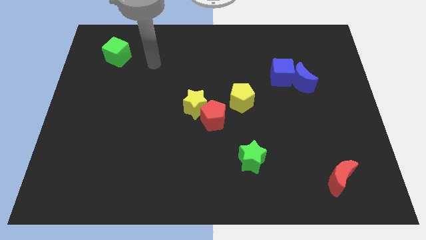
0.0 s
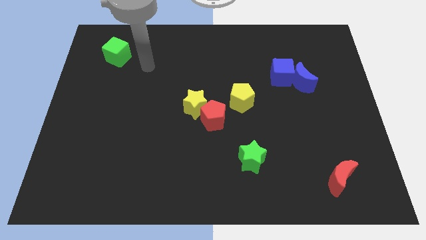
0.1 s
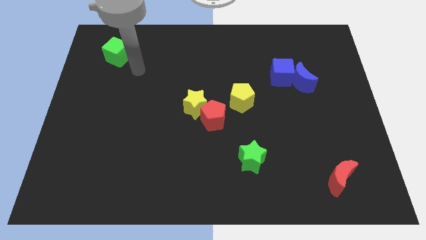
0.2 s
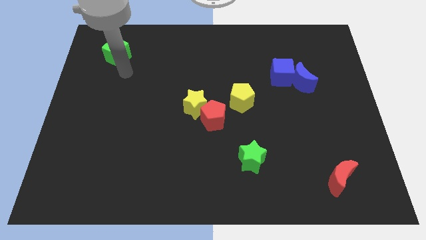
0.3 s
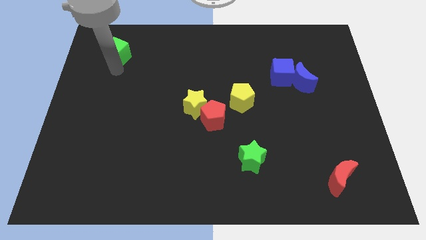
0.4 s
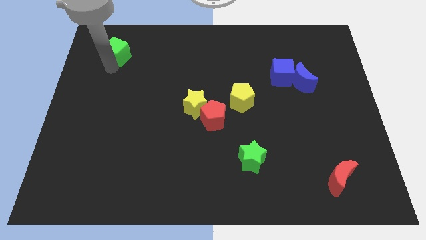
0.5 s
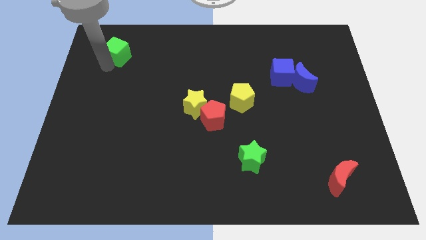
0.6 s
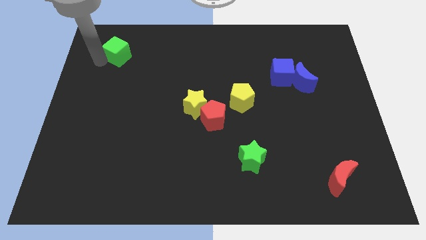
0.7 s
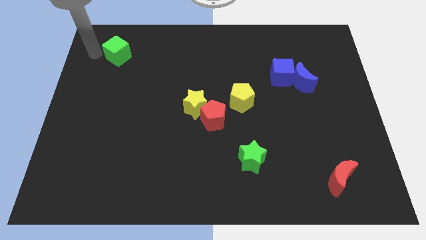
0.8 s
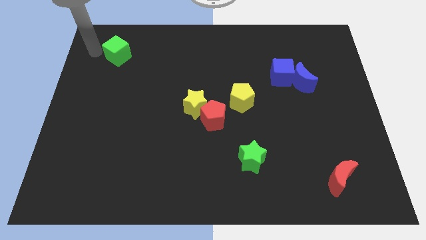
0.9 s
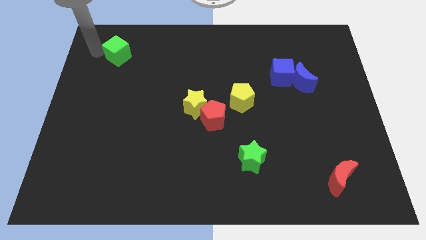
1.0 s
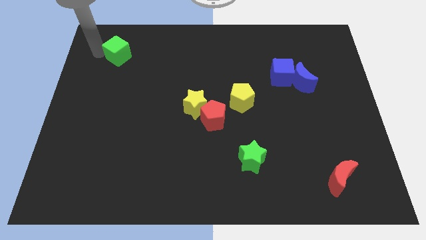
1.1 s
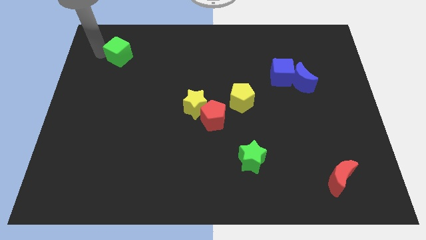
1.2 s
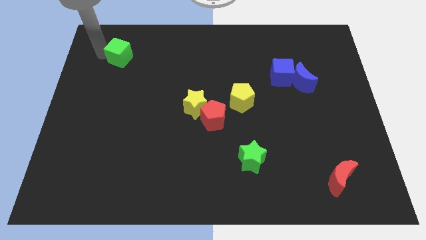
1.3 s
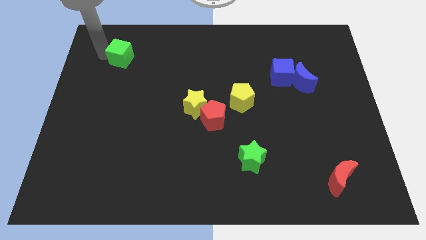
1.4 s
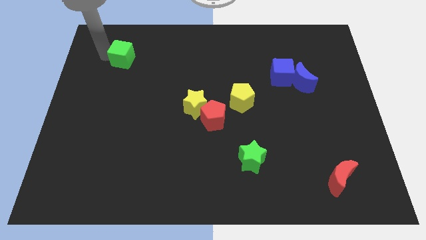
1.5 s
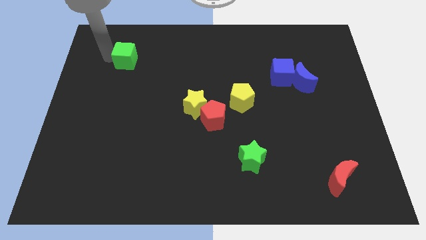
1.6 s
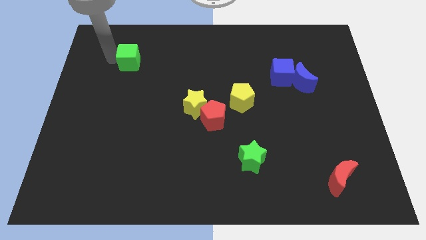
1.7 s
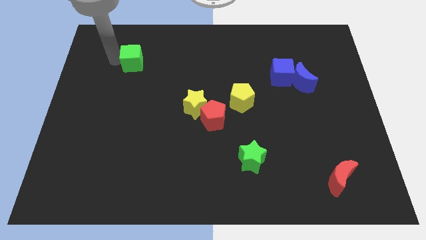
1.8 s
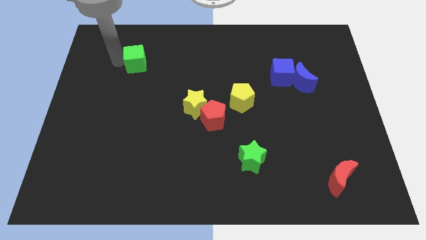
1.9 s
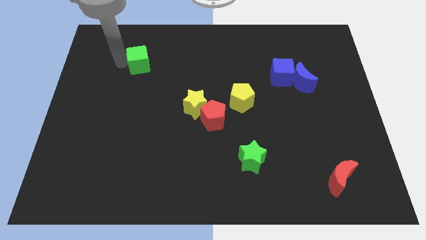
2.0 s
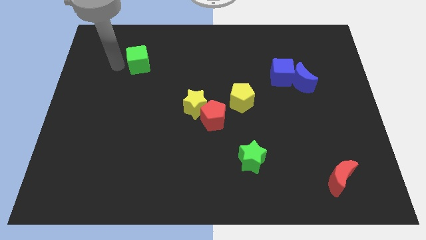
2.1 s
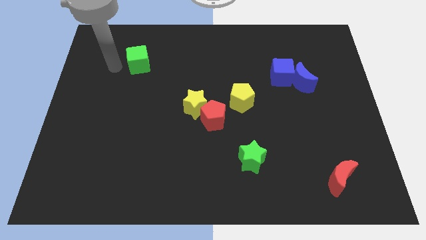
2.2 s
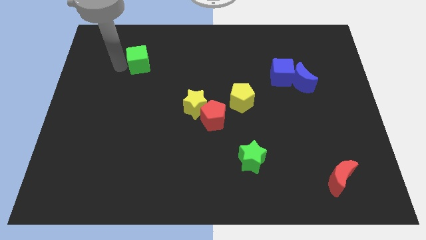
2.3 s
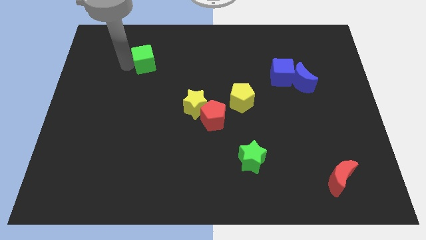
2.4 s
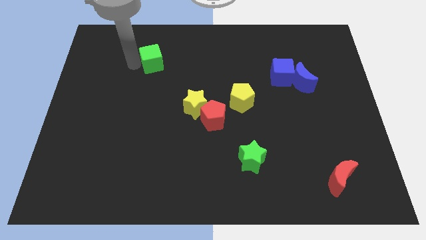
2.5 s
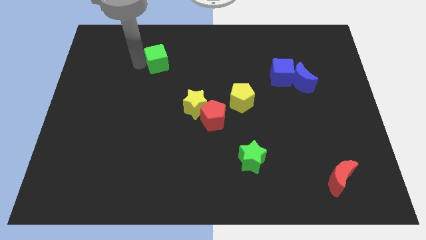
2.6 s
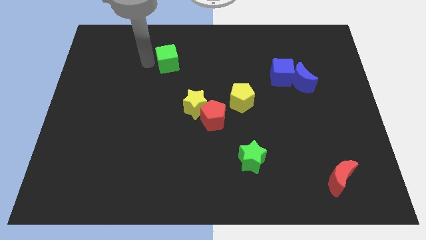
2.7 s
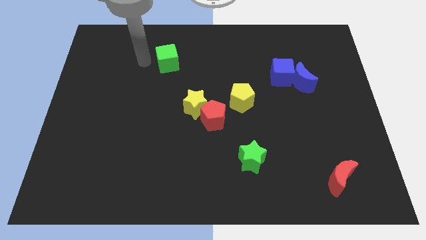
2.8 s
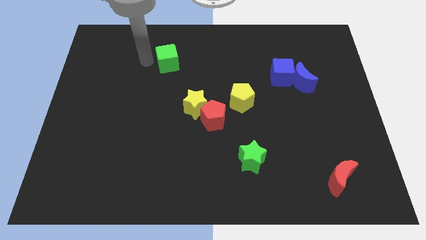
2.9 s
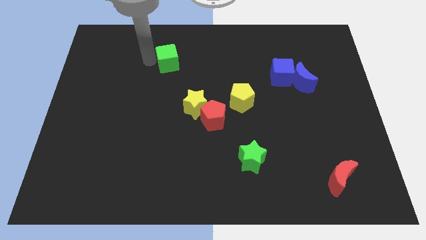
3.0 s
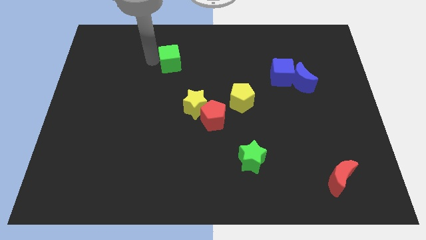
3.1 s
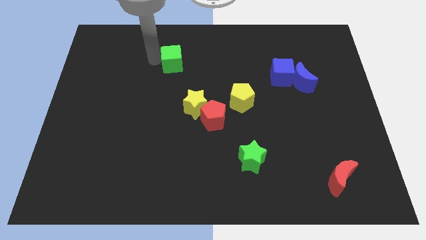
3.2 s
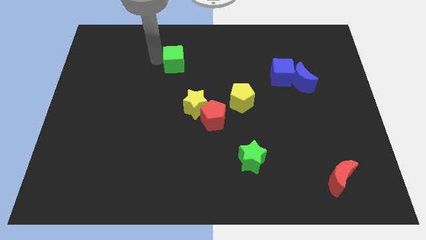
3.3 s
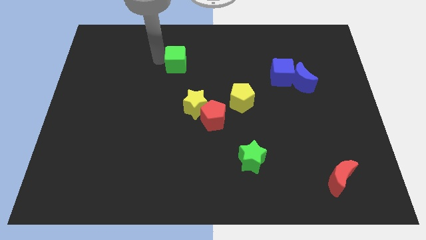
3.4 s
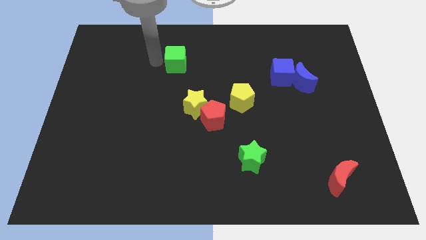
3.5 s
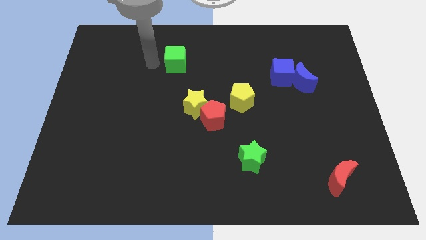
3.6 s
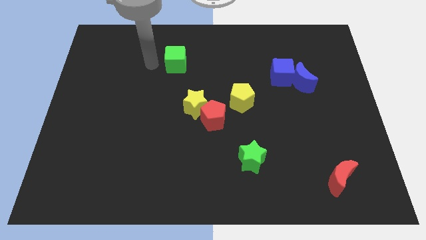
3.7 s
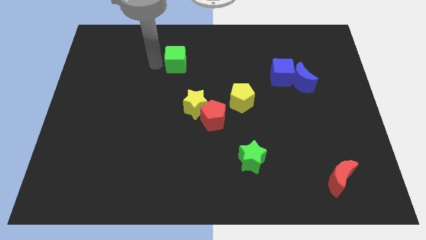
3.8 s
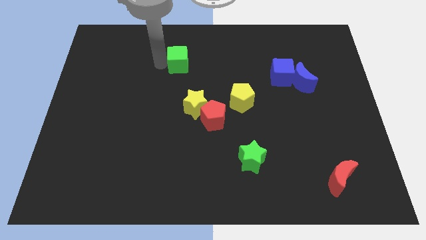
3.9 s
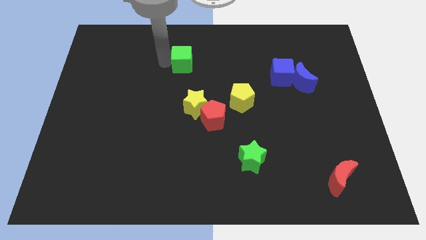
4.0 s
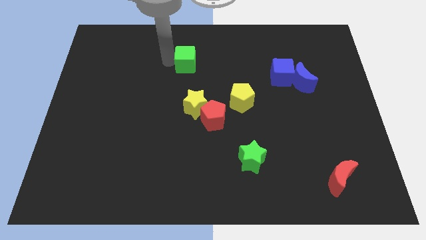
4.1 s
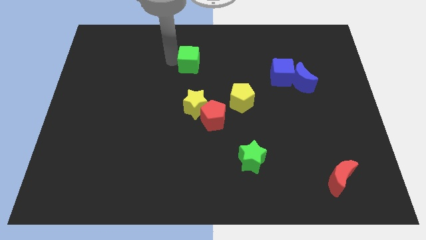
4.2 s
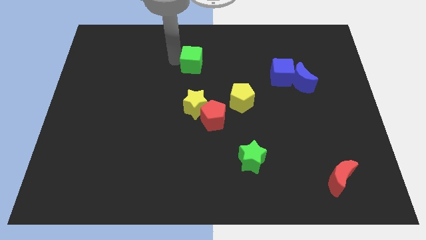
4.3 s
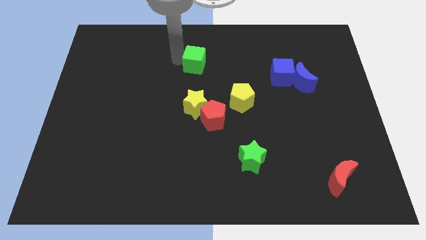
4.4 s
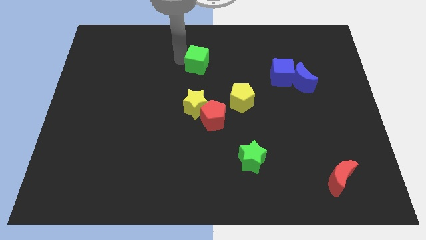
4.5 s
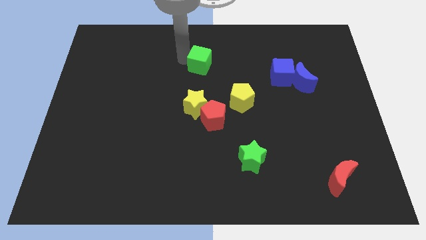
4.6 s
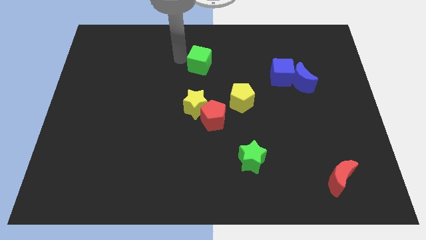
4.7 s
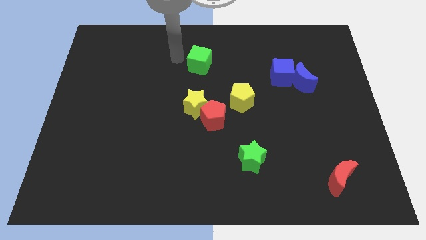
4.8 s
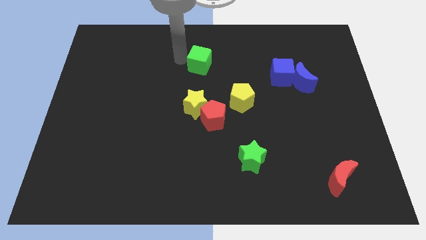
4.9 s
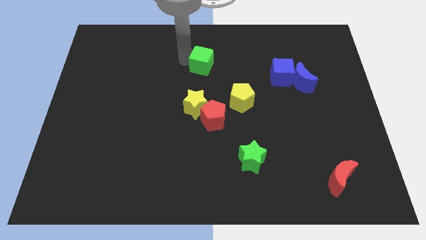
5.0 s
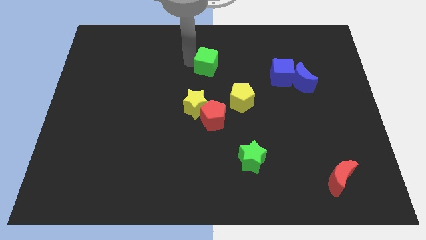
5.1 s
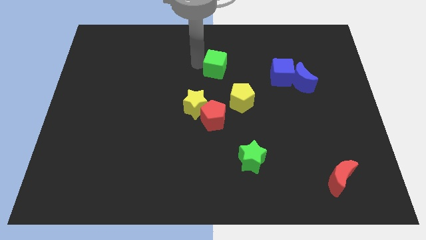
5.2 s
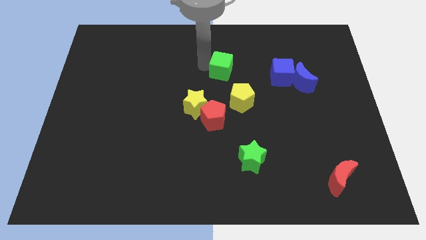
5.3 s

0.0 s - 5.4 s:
put the green cube above the yellow pentagon
